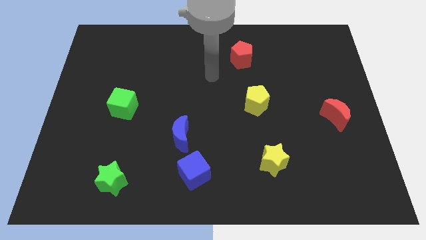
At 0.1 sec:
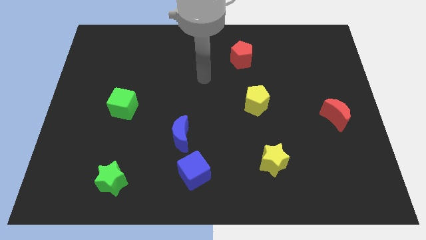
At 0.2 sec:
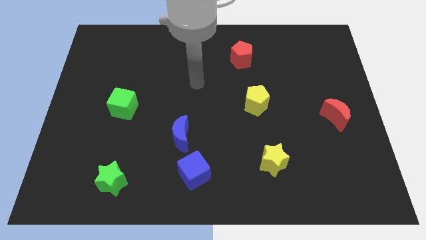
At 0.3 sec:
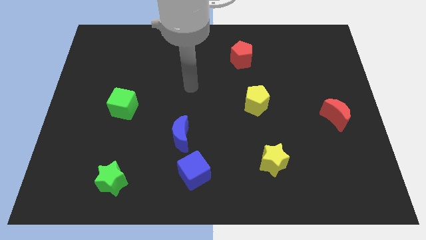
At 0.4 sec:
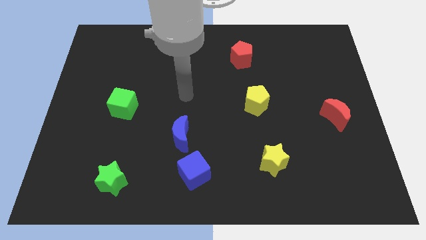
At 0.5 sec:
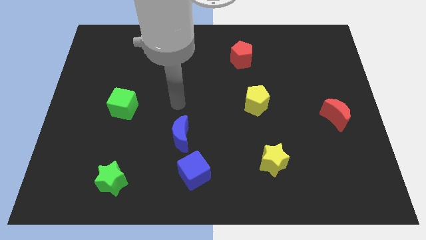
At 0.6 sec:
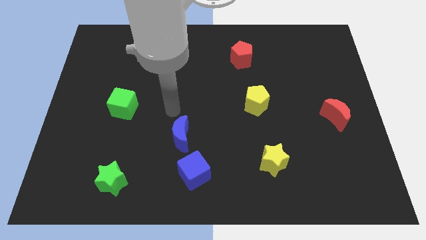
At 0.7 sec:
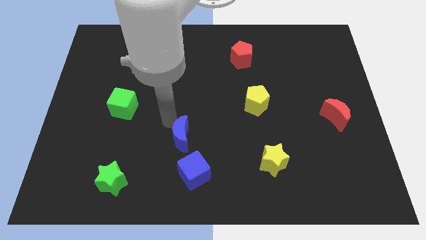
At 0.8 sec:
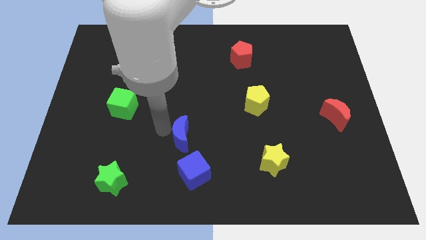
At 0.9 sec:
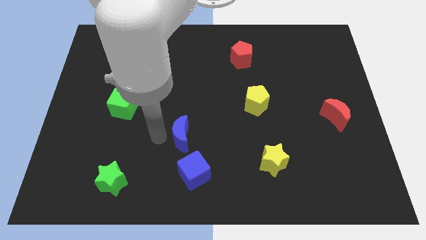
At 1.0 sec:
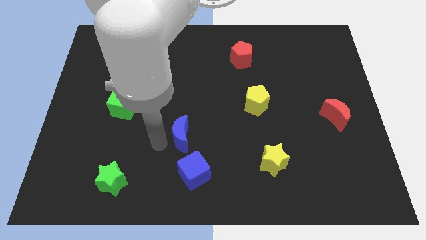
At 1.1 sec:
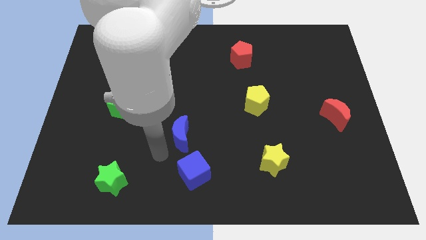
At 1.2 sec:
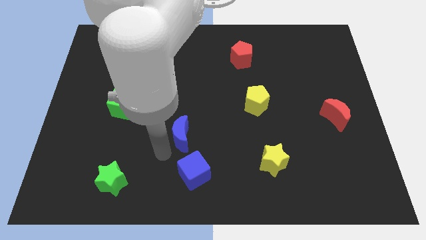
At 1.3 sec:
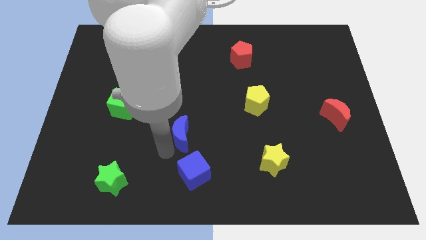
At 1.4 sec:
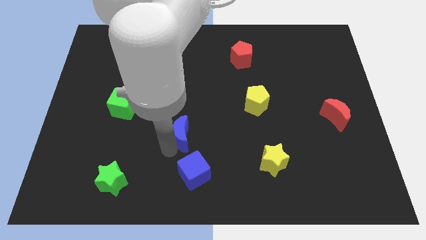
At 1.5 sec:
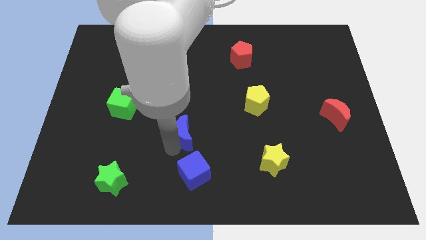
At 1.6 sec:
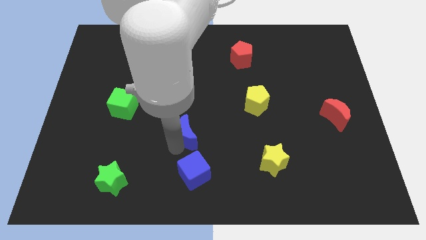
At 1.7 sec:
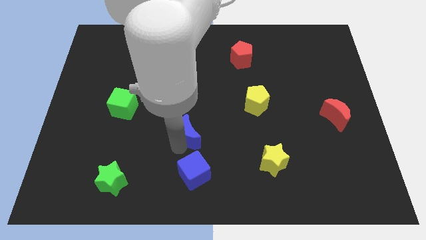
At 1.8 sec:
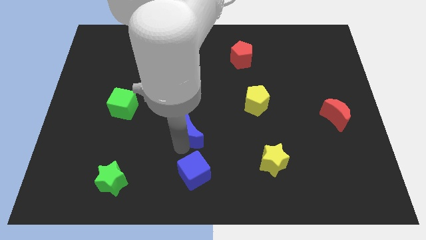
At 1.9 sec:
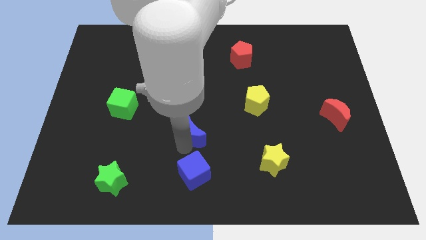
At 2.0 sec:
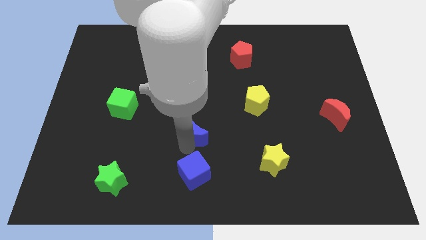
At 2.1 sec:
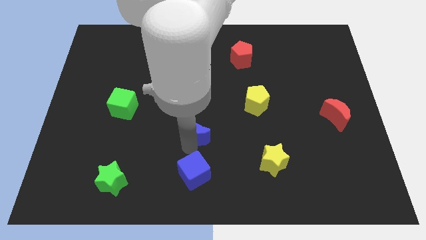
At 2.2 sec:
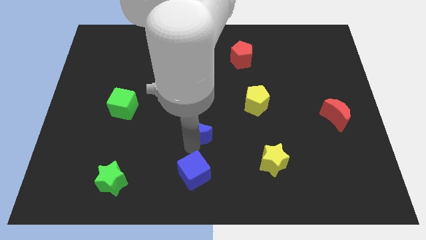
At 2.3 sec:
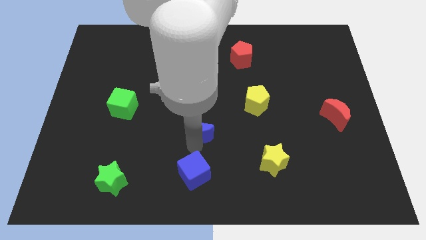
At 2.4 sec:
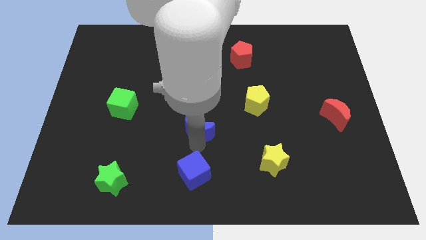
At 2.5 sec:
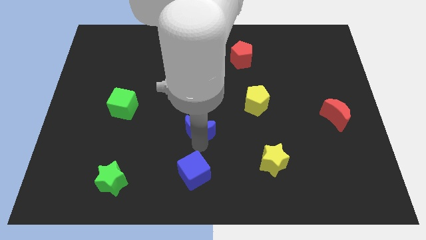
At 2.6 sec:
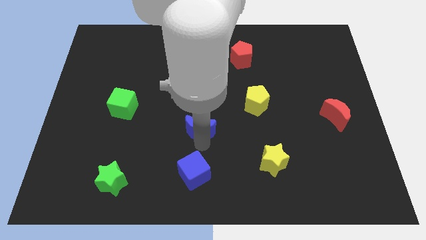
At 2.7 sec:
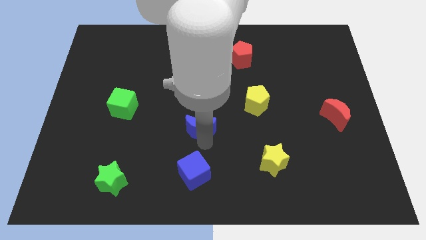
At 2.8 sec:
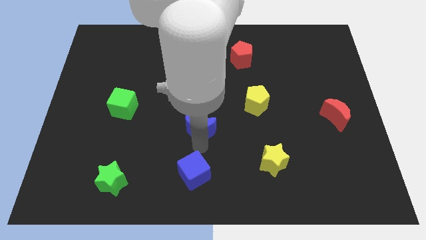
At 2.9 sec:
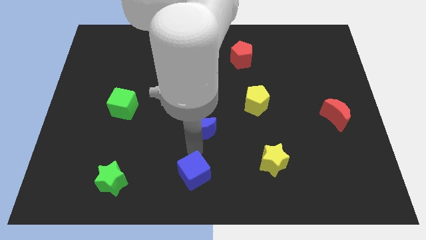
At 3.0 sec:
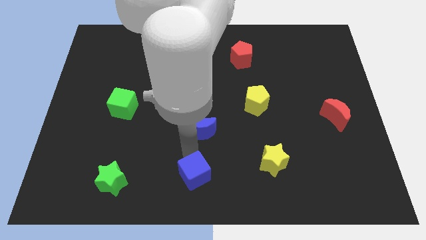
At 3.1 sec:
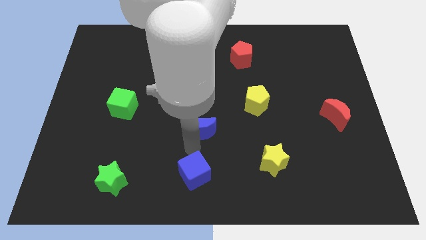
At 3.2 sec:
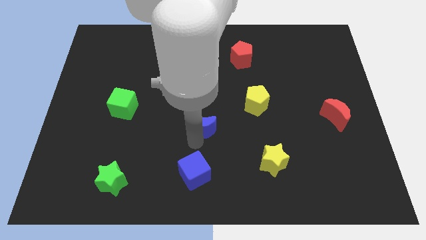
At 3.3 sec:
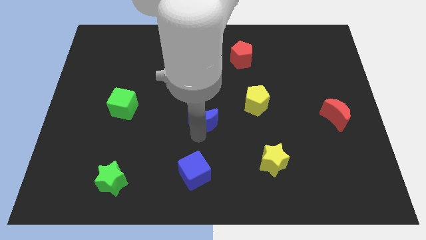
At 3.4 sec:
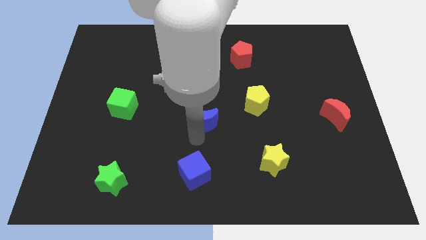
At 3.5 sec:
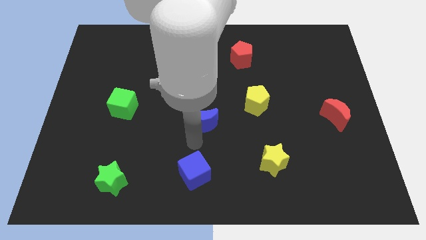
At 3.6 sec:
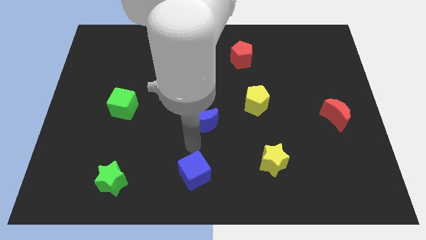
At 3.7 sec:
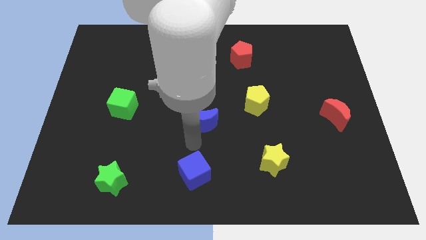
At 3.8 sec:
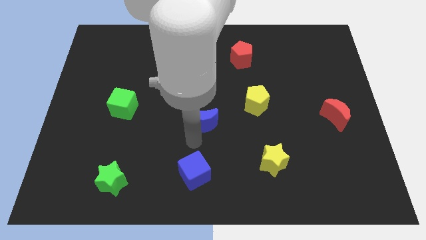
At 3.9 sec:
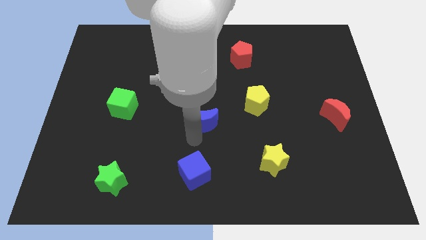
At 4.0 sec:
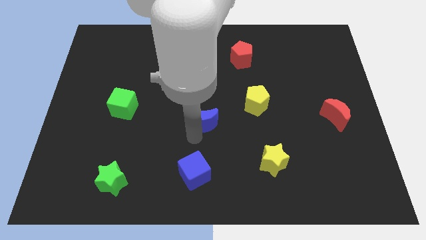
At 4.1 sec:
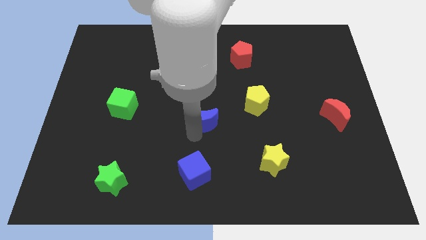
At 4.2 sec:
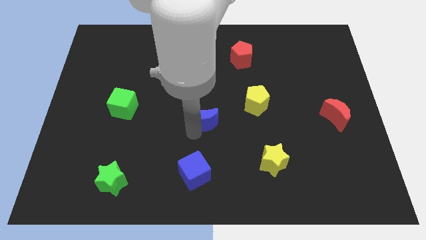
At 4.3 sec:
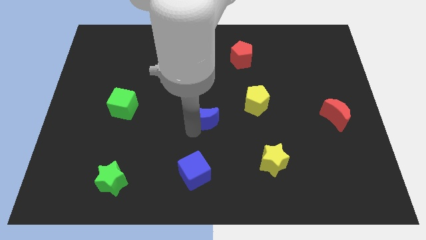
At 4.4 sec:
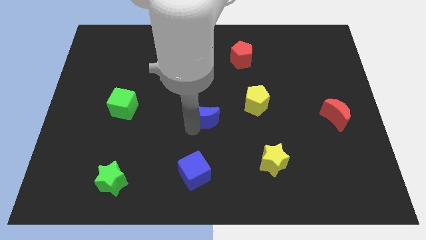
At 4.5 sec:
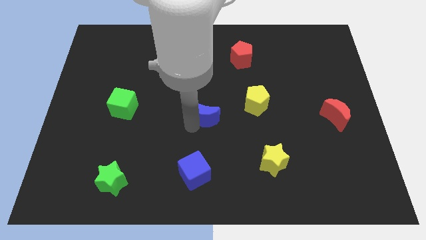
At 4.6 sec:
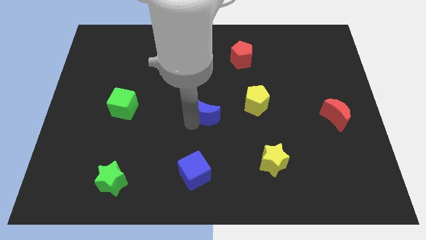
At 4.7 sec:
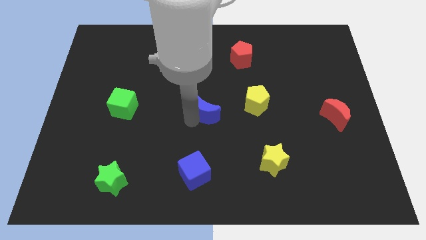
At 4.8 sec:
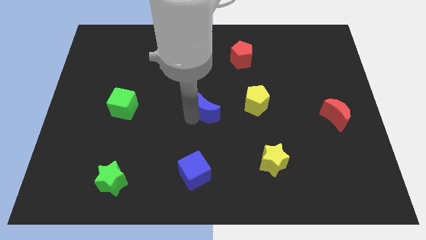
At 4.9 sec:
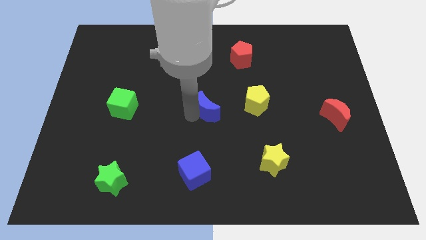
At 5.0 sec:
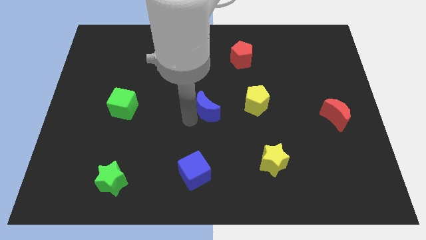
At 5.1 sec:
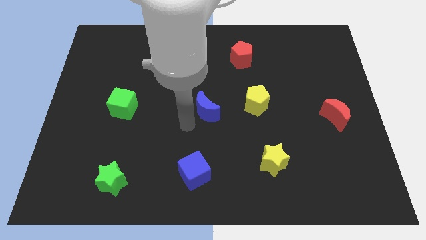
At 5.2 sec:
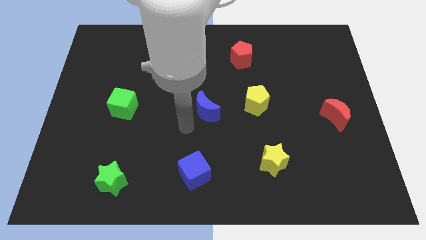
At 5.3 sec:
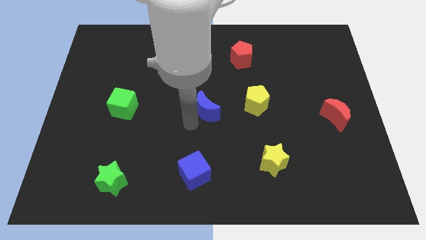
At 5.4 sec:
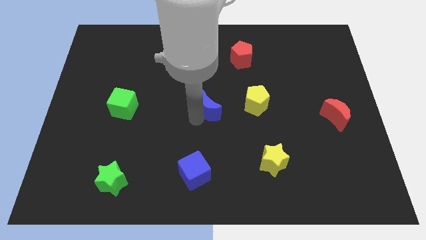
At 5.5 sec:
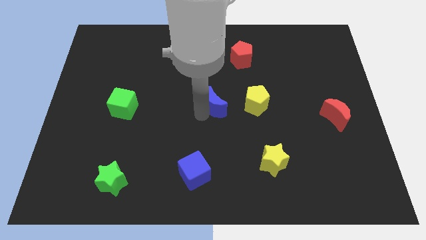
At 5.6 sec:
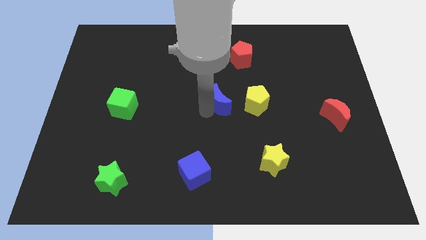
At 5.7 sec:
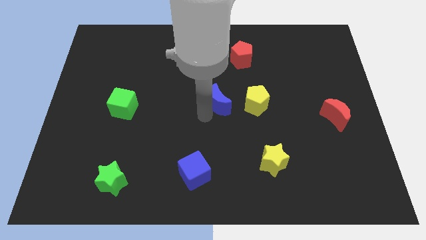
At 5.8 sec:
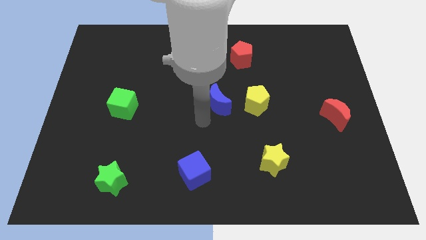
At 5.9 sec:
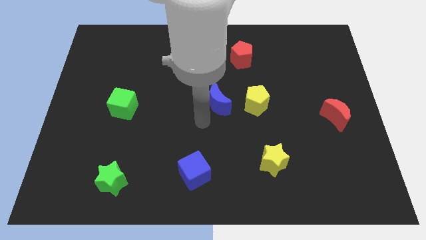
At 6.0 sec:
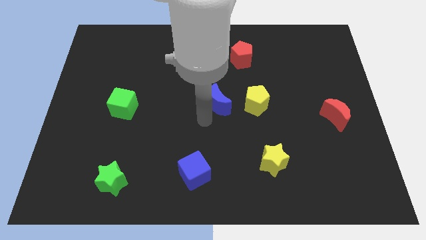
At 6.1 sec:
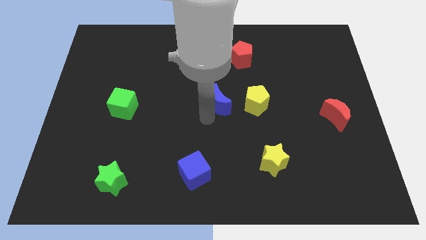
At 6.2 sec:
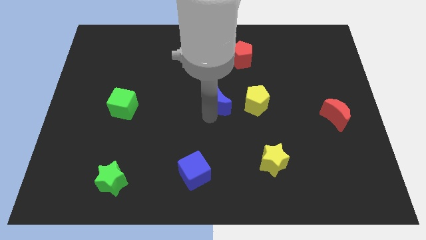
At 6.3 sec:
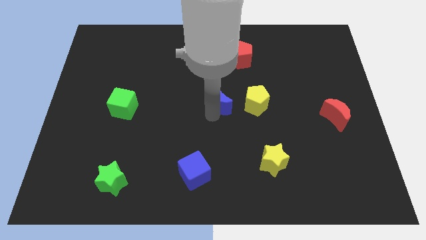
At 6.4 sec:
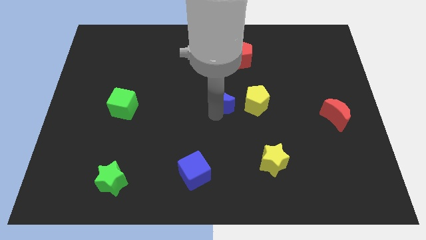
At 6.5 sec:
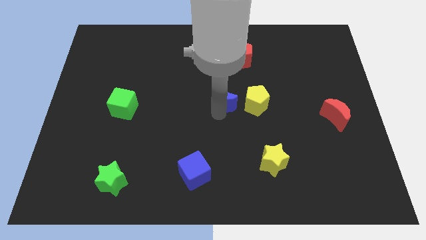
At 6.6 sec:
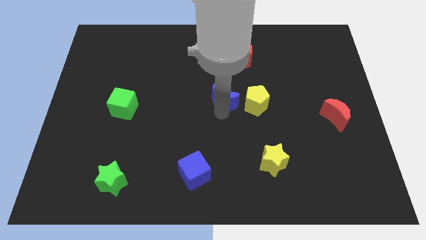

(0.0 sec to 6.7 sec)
slide the blue moon to the top left of the yellow pentagon

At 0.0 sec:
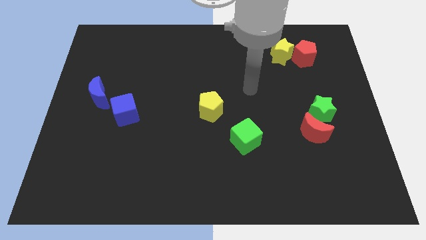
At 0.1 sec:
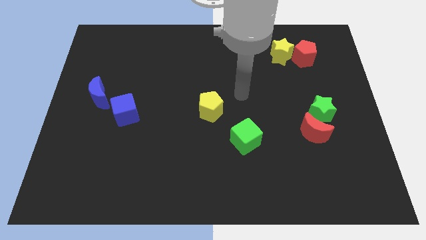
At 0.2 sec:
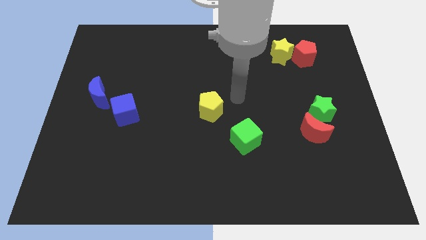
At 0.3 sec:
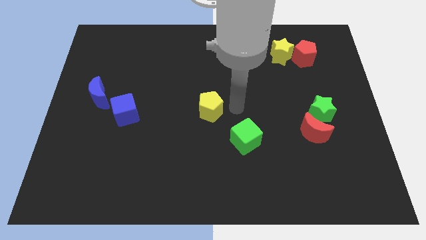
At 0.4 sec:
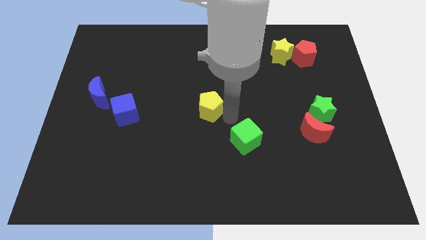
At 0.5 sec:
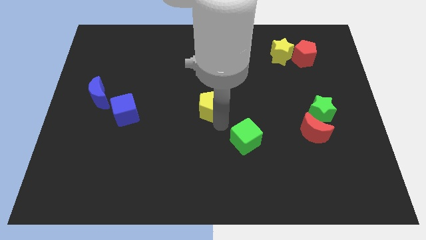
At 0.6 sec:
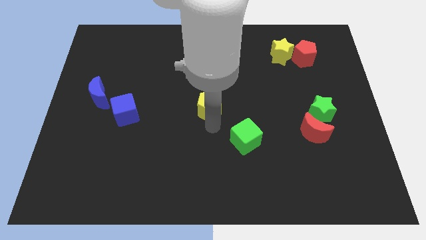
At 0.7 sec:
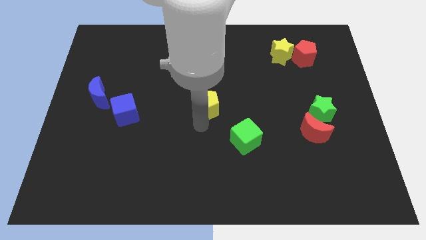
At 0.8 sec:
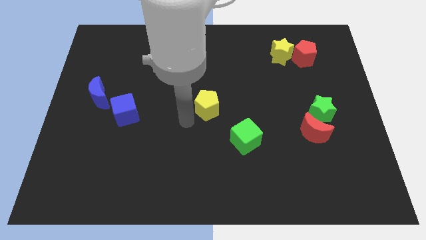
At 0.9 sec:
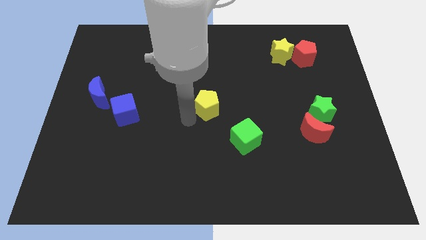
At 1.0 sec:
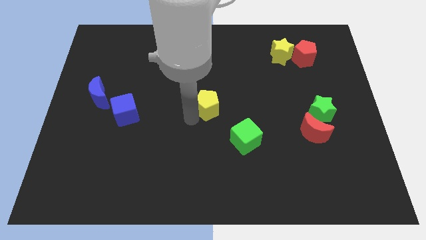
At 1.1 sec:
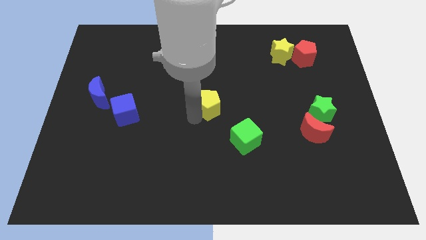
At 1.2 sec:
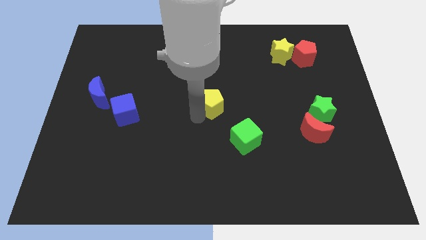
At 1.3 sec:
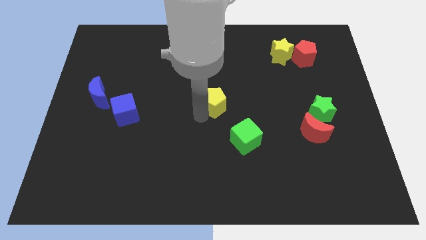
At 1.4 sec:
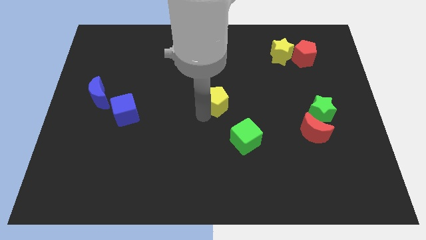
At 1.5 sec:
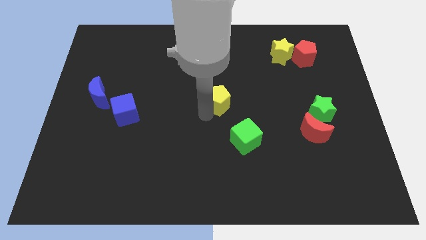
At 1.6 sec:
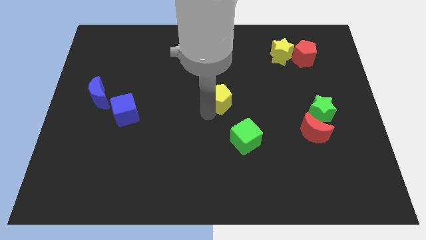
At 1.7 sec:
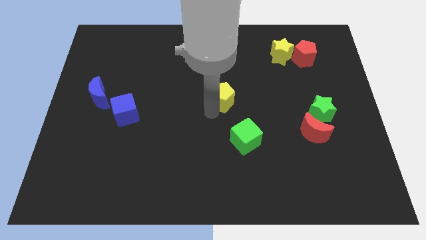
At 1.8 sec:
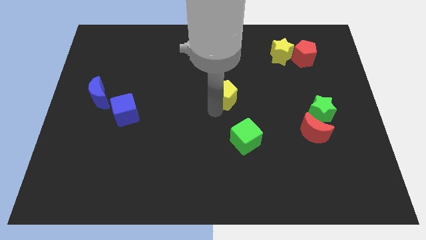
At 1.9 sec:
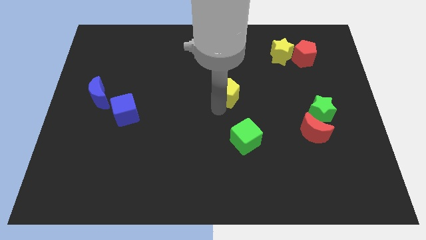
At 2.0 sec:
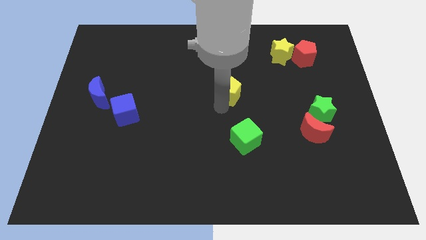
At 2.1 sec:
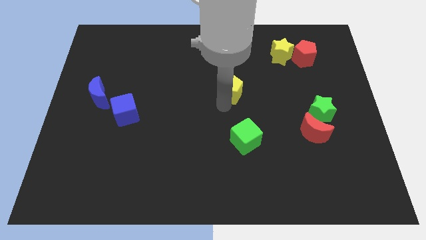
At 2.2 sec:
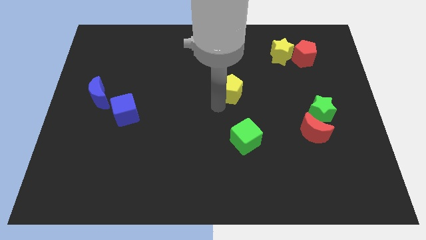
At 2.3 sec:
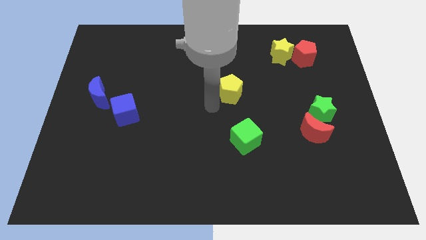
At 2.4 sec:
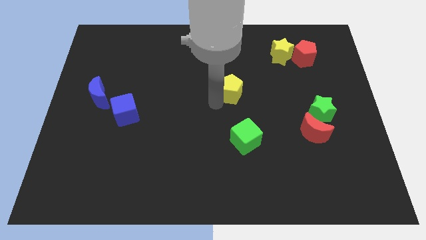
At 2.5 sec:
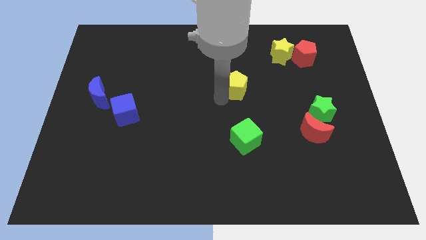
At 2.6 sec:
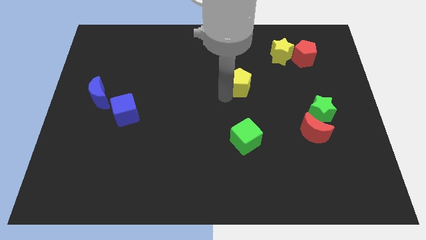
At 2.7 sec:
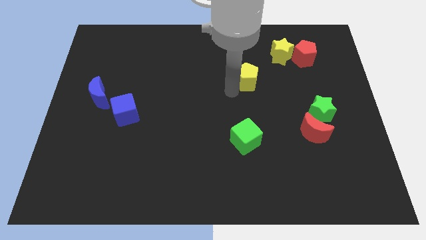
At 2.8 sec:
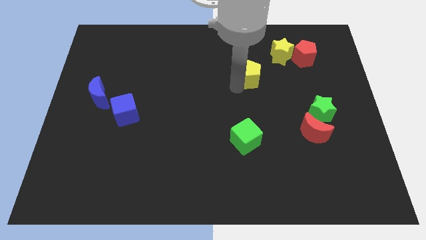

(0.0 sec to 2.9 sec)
move the yellow pentagon diagonally down and to the left of the yellow star
